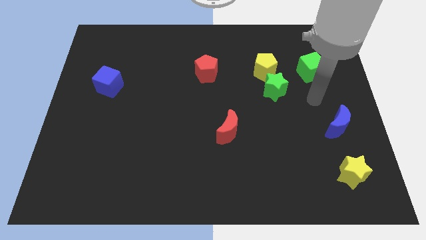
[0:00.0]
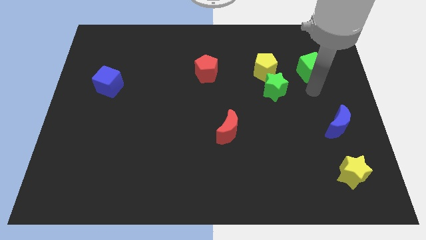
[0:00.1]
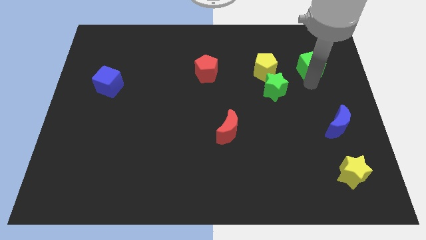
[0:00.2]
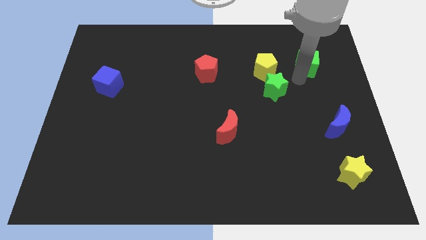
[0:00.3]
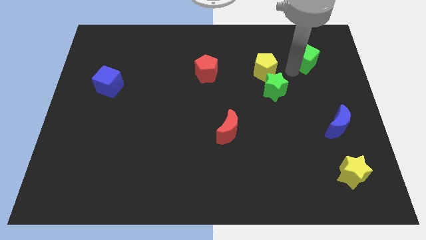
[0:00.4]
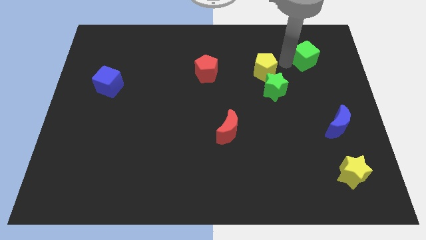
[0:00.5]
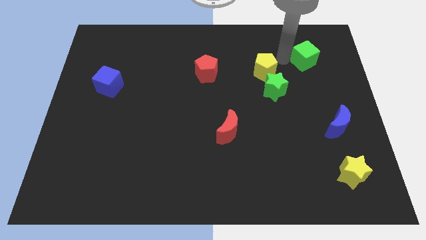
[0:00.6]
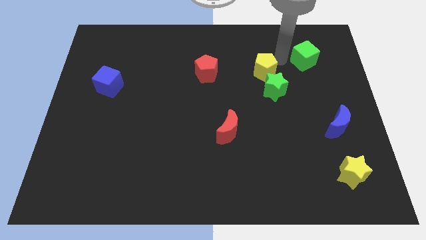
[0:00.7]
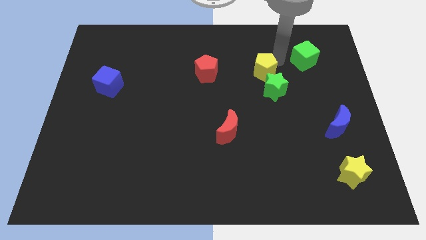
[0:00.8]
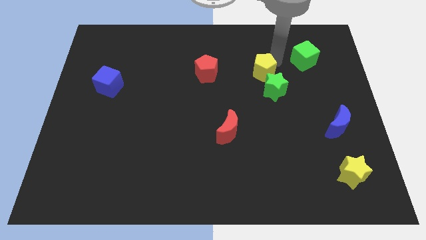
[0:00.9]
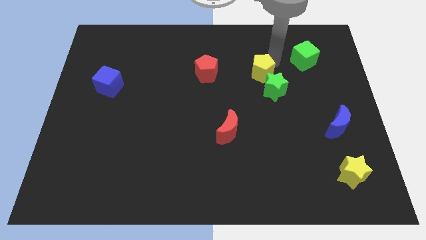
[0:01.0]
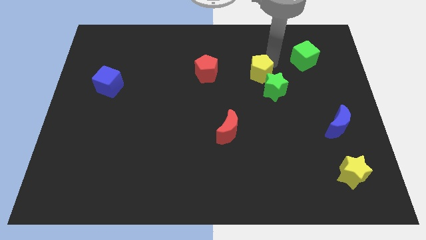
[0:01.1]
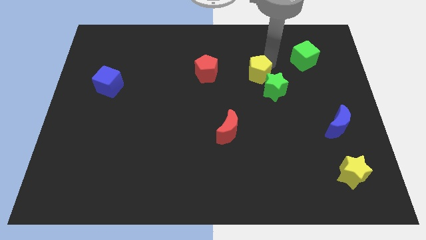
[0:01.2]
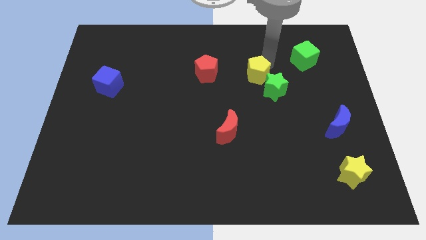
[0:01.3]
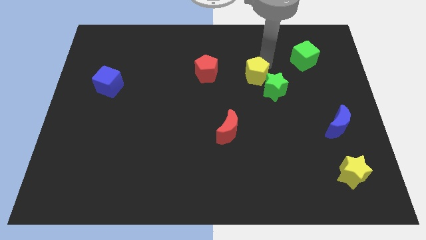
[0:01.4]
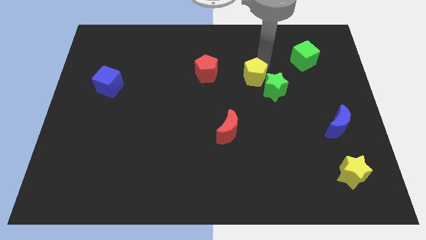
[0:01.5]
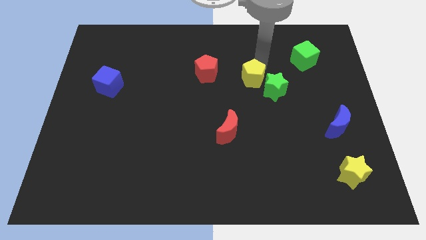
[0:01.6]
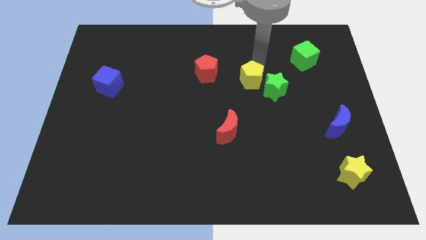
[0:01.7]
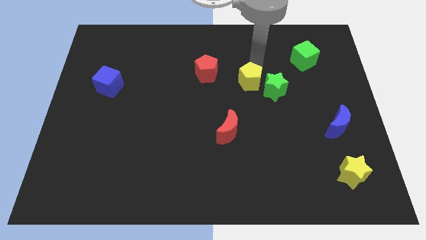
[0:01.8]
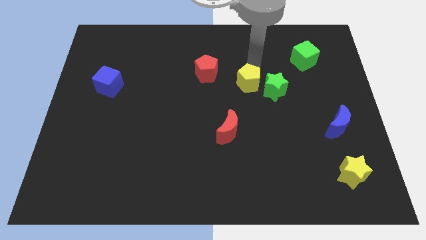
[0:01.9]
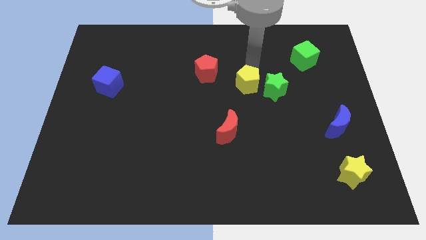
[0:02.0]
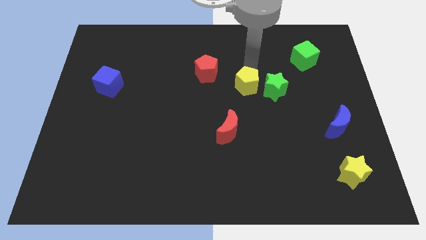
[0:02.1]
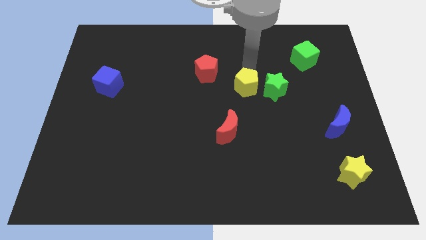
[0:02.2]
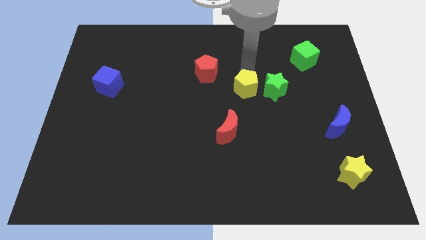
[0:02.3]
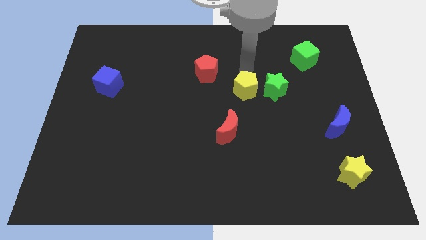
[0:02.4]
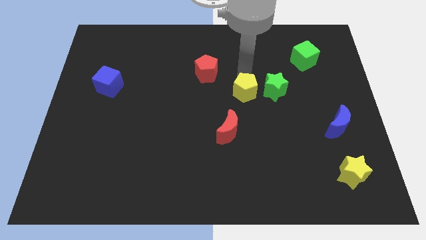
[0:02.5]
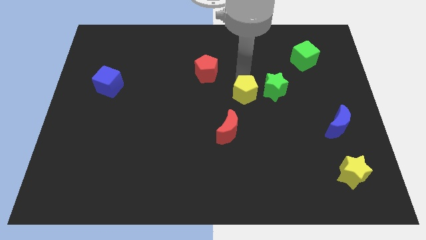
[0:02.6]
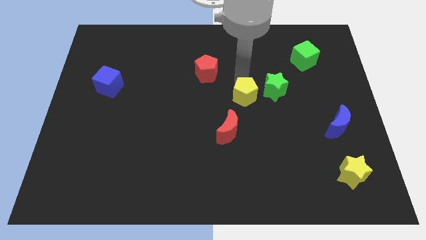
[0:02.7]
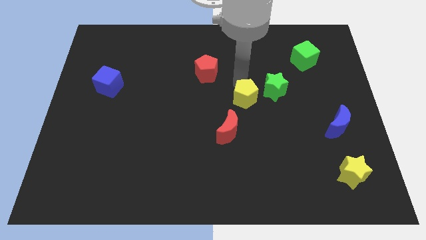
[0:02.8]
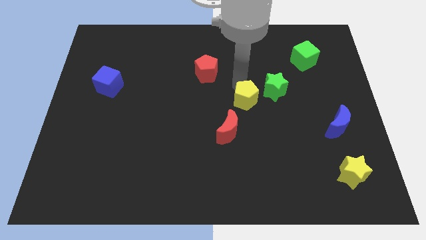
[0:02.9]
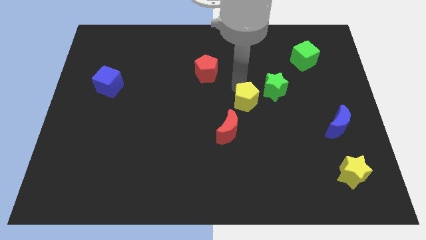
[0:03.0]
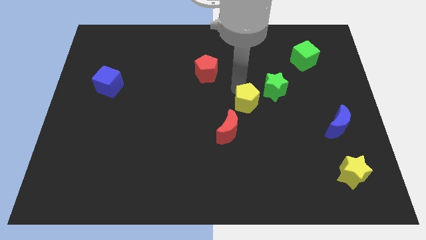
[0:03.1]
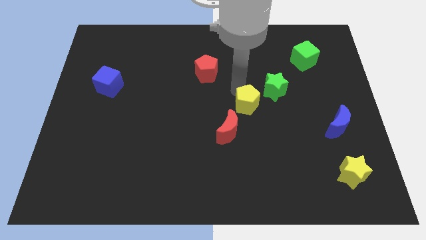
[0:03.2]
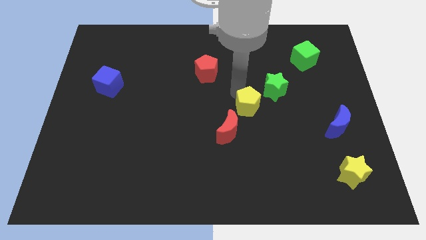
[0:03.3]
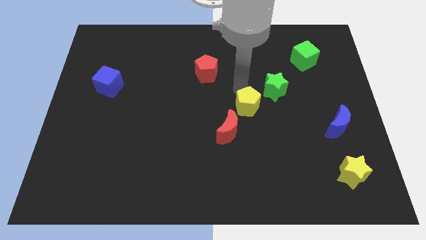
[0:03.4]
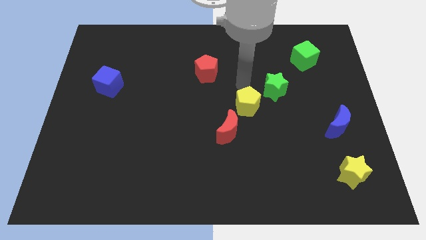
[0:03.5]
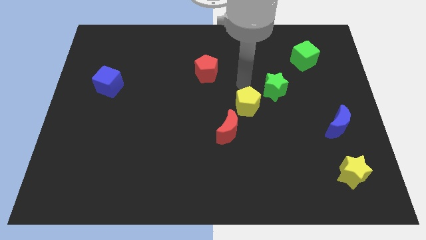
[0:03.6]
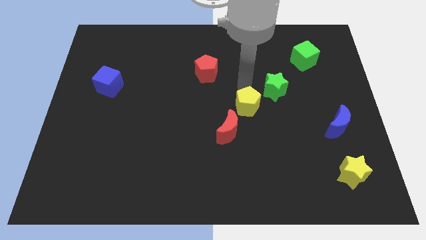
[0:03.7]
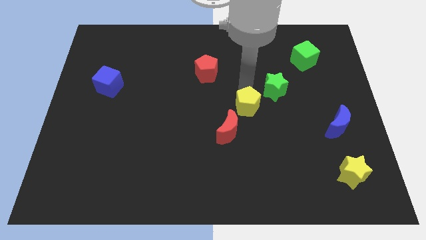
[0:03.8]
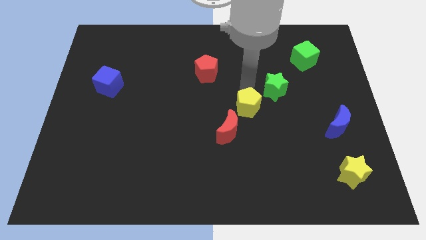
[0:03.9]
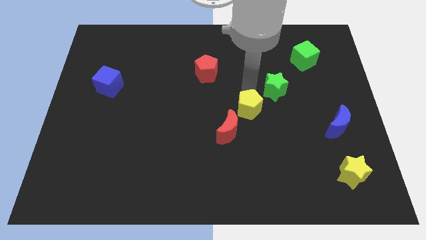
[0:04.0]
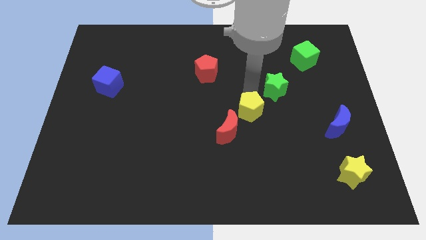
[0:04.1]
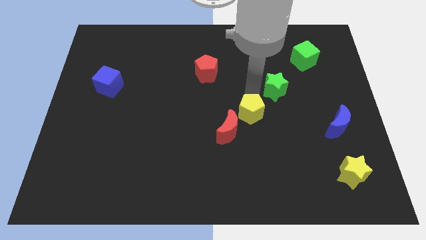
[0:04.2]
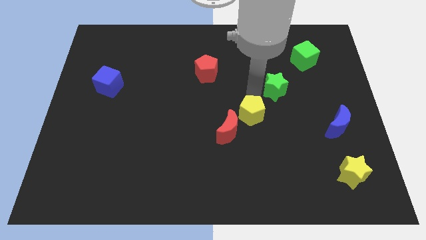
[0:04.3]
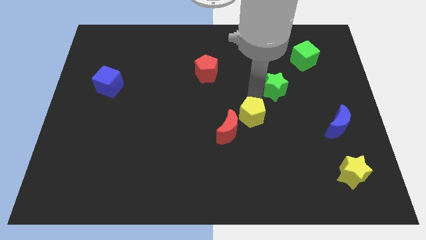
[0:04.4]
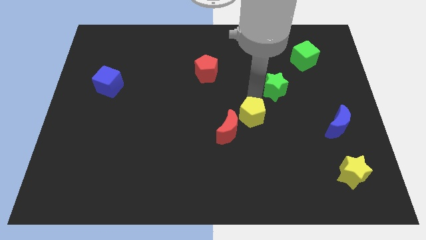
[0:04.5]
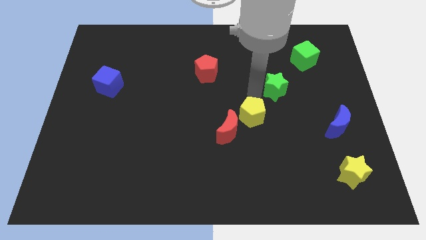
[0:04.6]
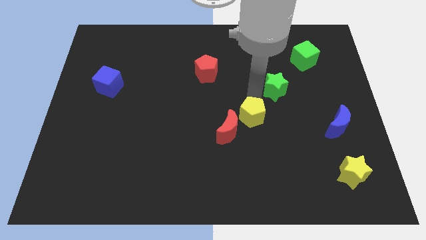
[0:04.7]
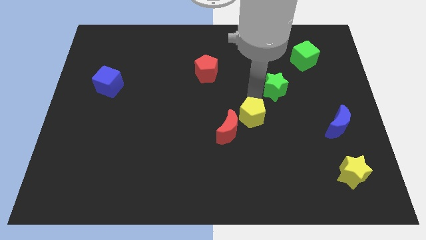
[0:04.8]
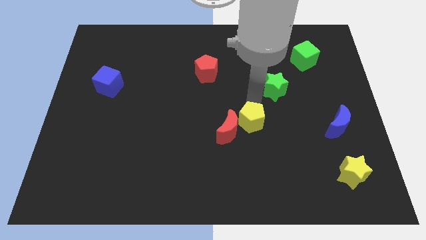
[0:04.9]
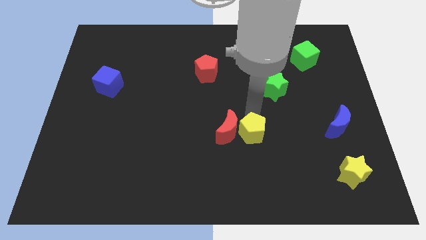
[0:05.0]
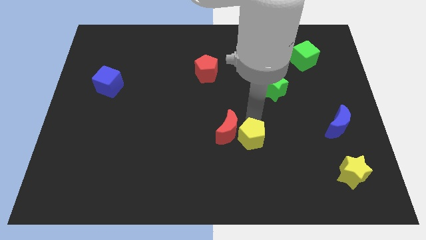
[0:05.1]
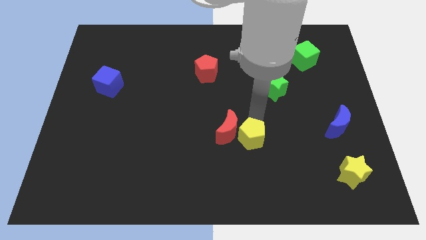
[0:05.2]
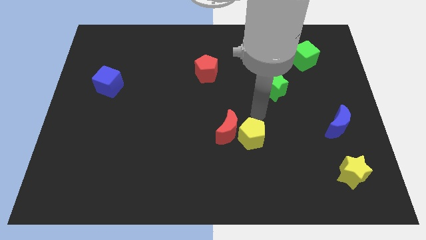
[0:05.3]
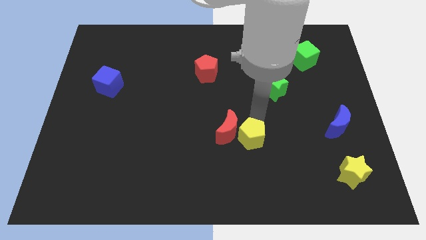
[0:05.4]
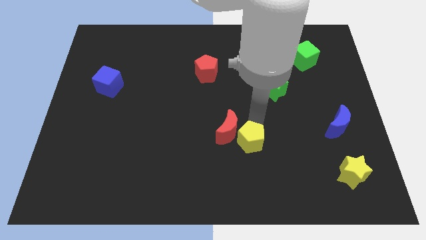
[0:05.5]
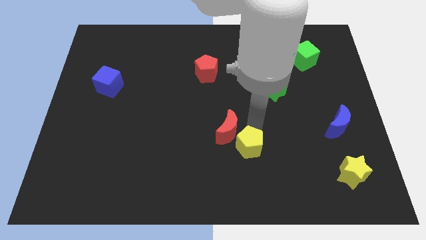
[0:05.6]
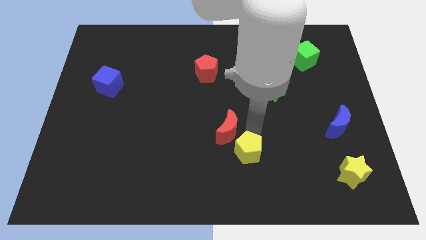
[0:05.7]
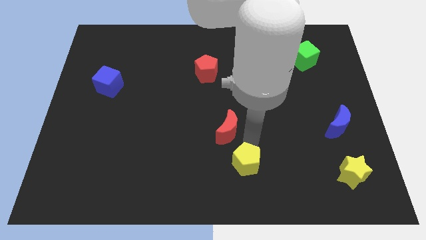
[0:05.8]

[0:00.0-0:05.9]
put the yellow pentagon to the bottom

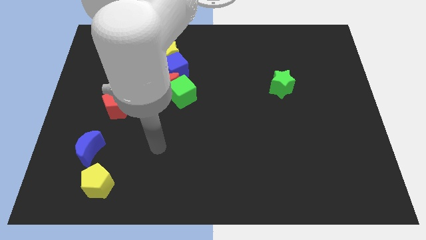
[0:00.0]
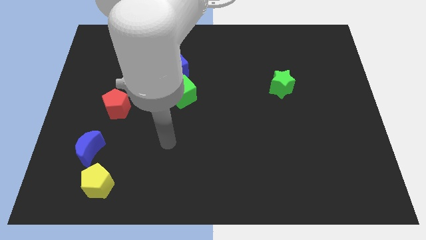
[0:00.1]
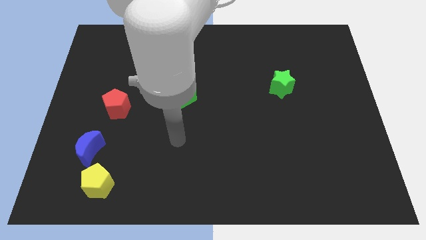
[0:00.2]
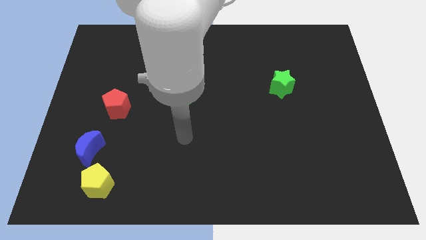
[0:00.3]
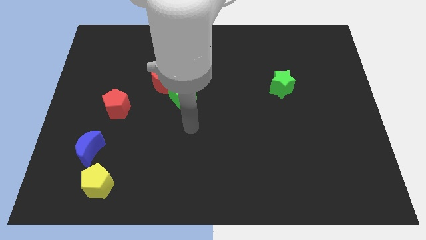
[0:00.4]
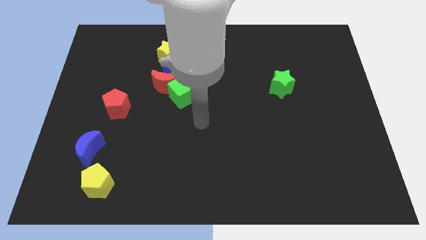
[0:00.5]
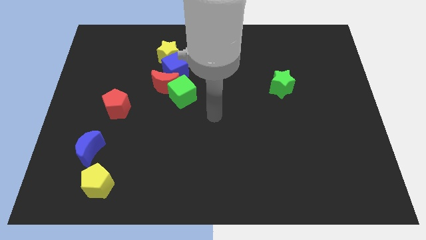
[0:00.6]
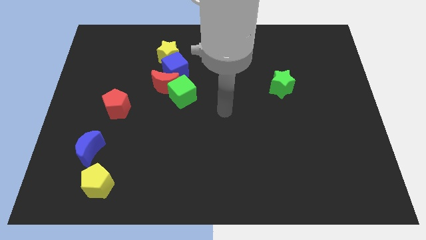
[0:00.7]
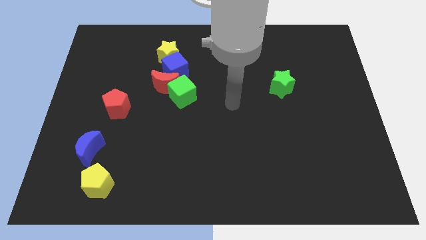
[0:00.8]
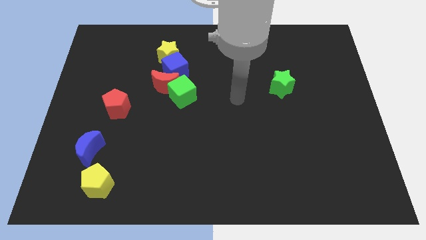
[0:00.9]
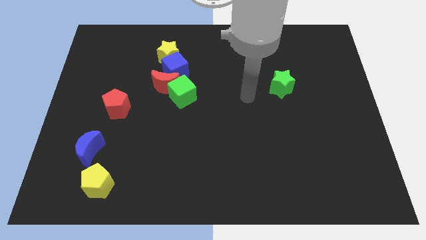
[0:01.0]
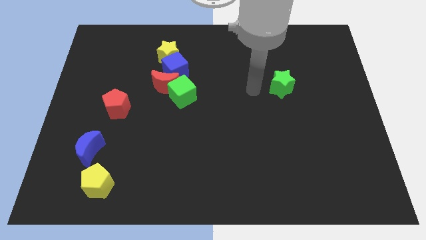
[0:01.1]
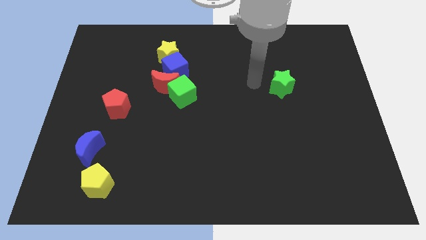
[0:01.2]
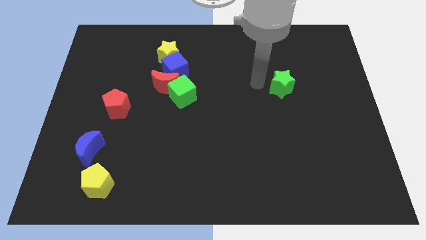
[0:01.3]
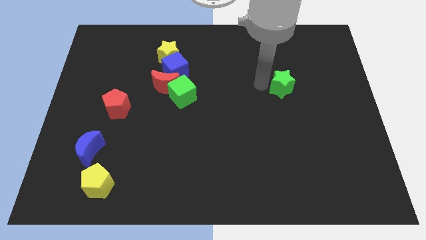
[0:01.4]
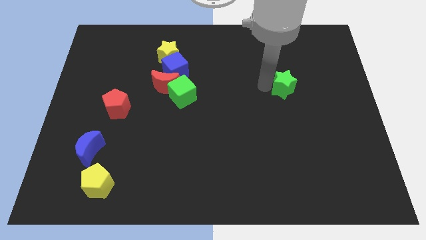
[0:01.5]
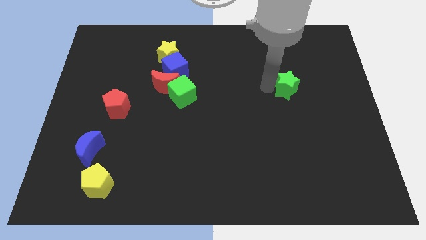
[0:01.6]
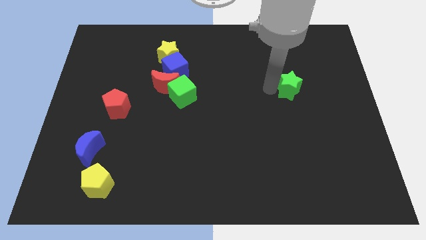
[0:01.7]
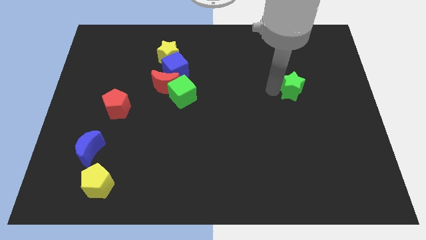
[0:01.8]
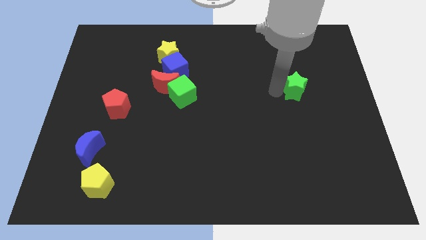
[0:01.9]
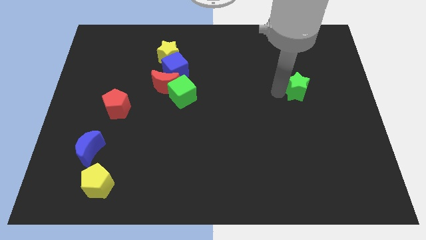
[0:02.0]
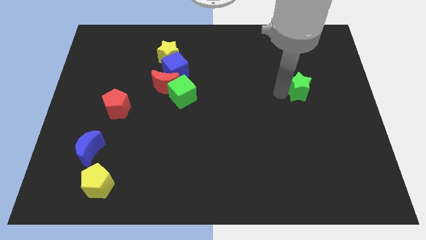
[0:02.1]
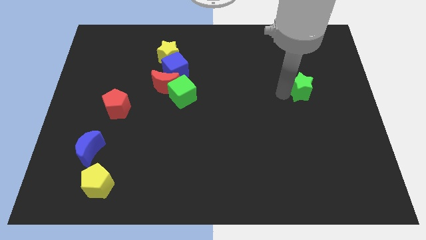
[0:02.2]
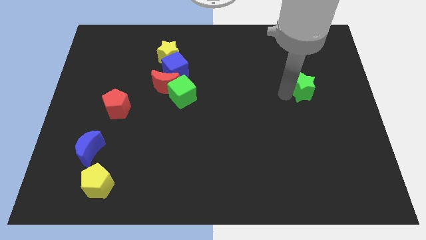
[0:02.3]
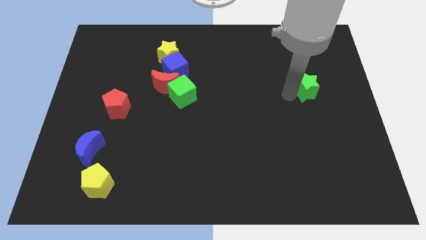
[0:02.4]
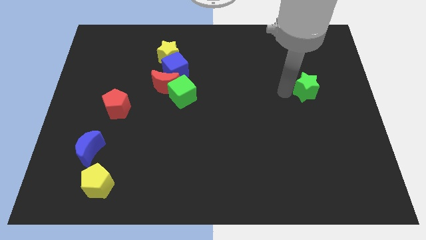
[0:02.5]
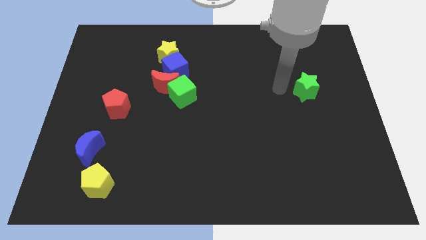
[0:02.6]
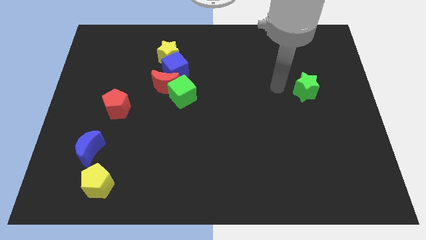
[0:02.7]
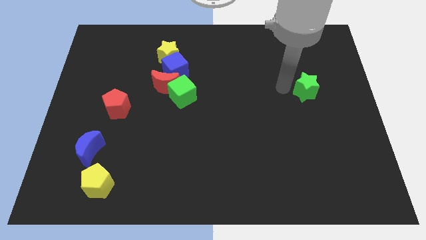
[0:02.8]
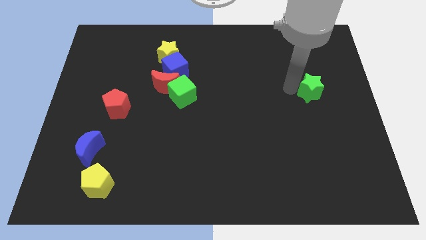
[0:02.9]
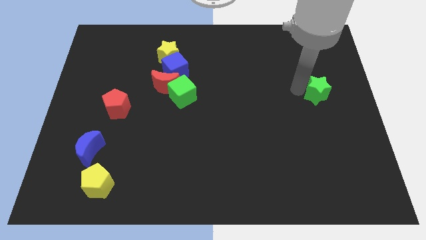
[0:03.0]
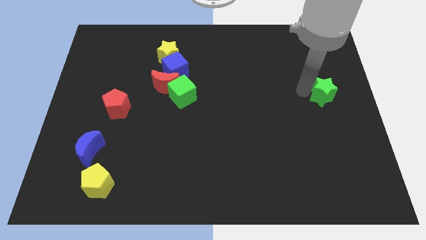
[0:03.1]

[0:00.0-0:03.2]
put the green star to the right side
